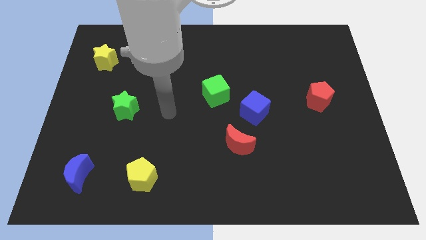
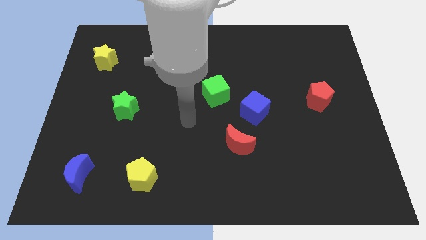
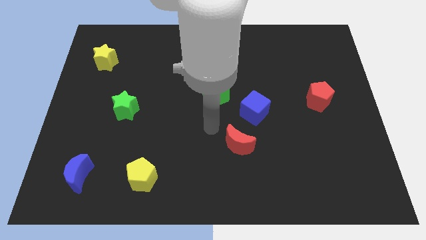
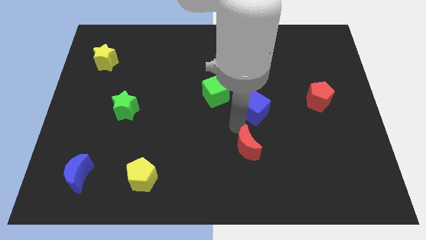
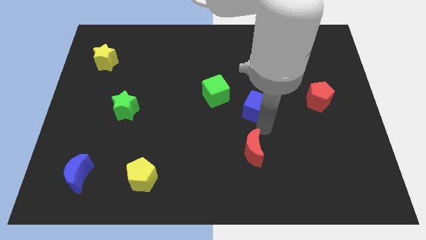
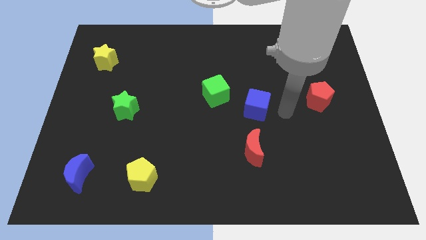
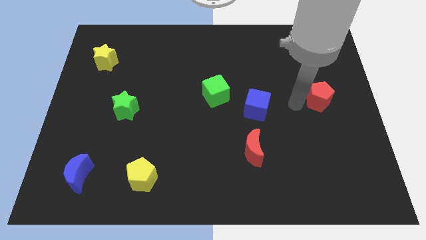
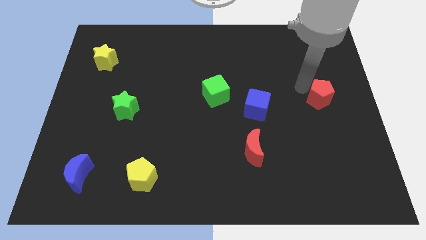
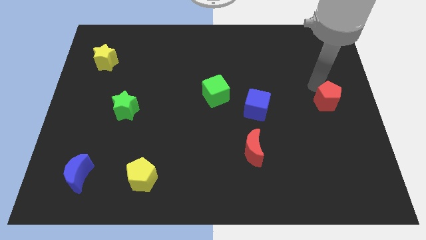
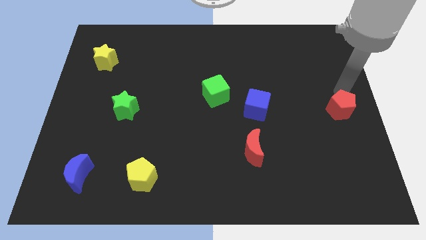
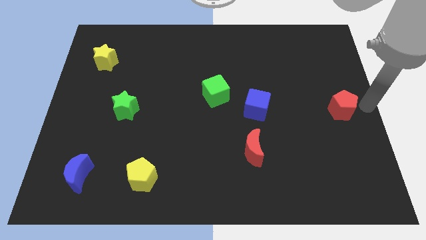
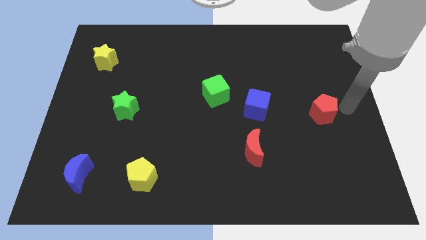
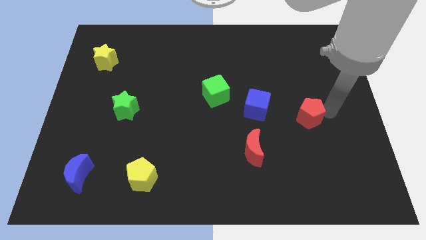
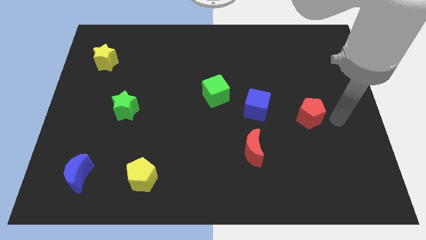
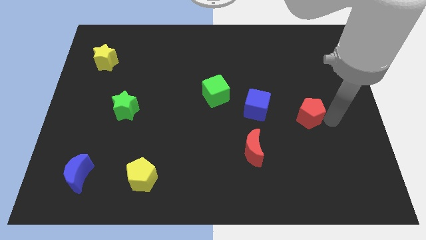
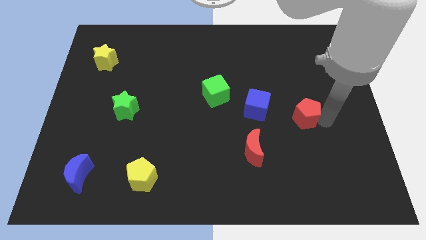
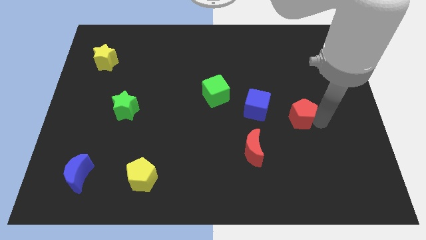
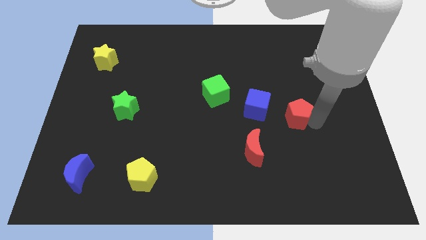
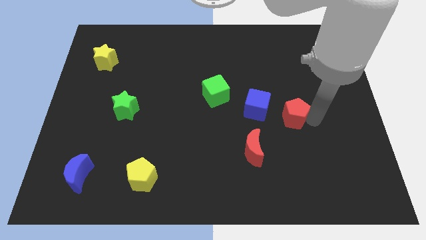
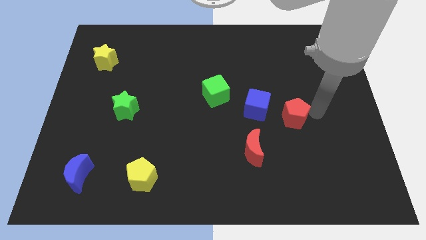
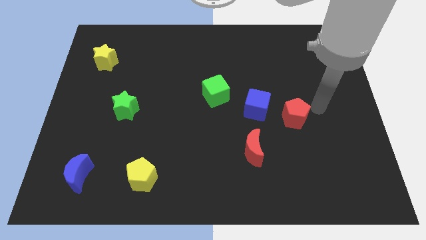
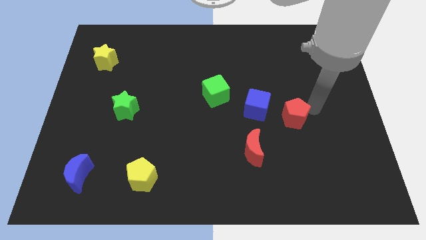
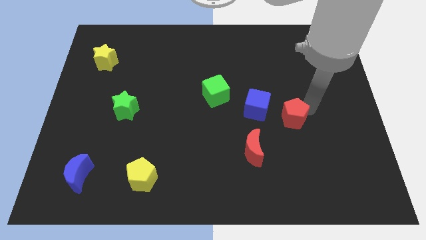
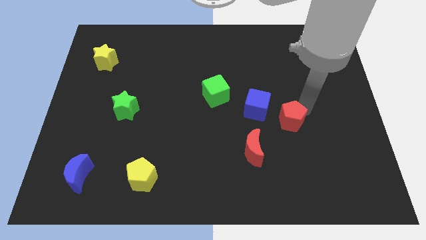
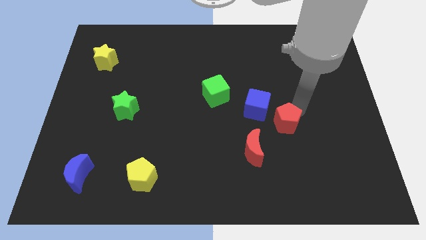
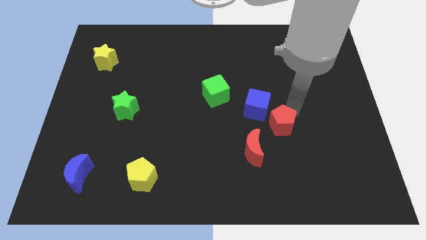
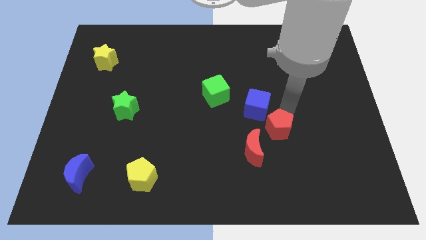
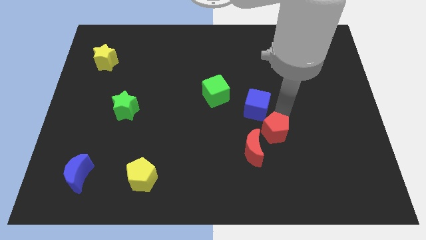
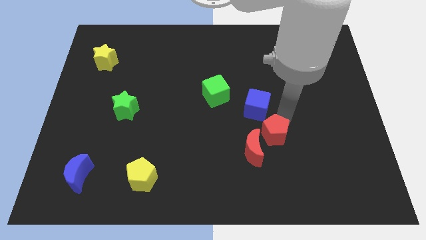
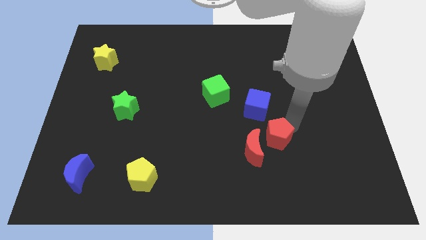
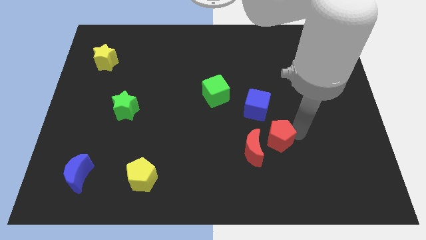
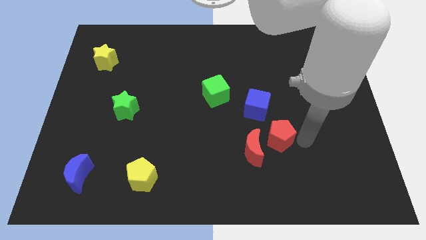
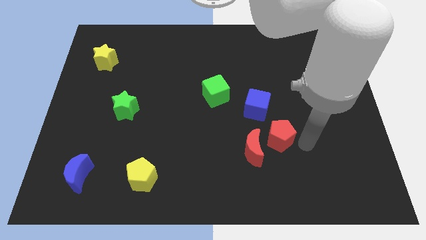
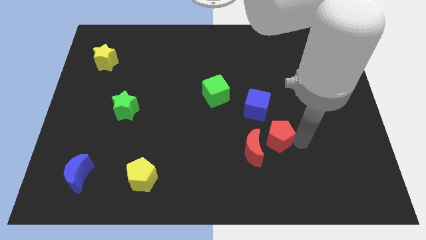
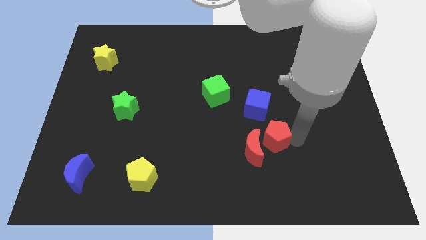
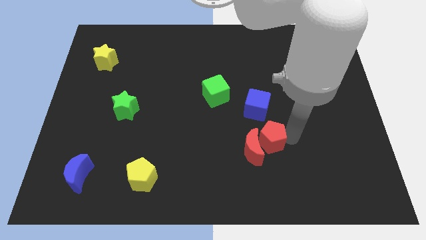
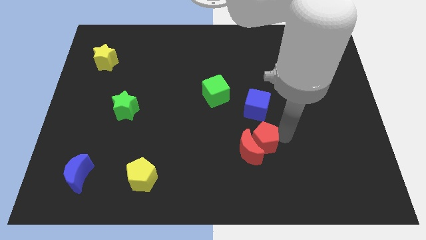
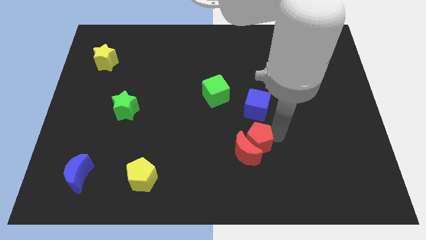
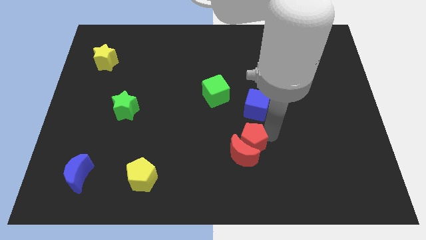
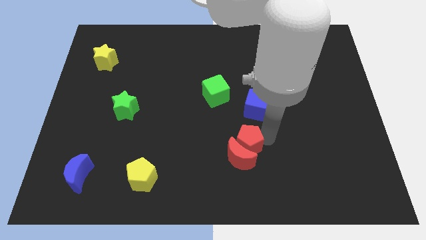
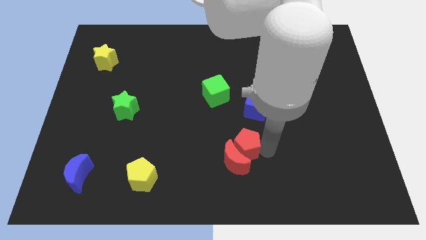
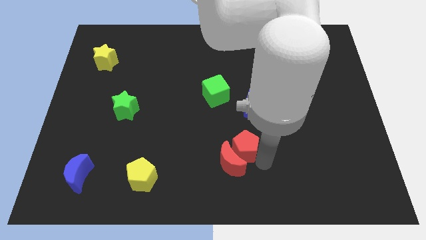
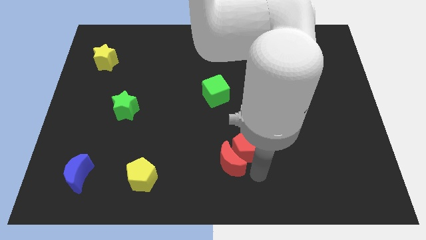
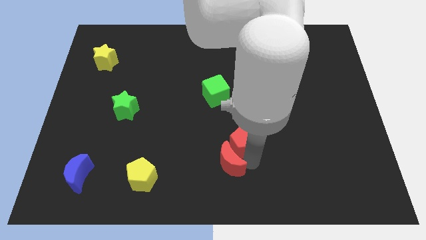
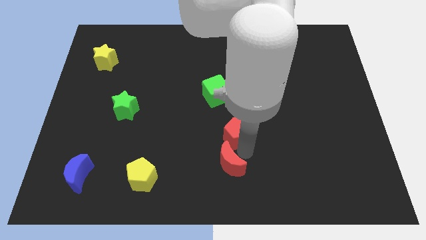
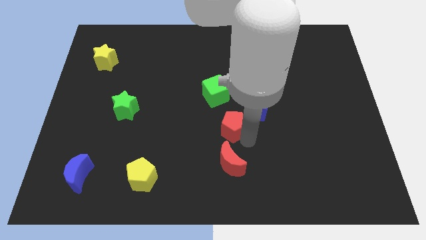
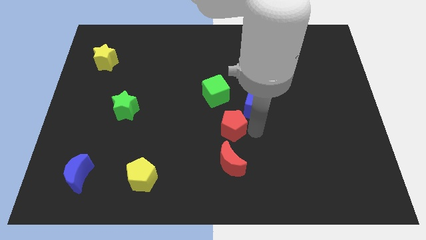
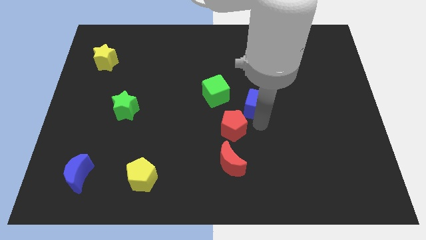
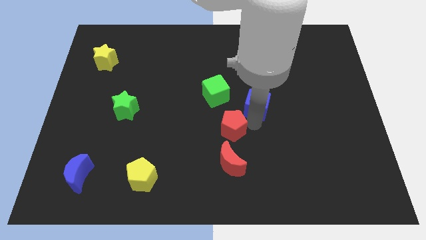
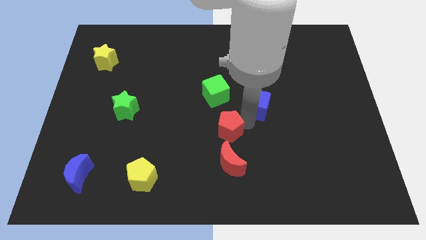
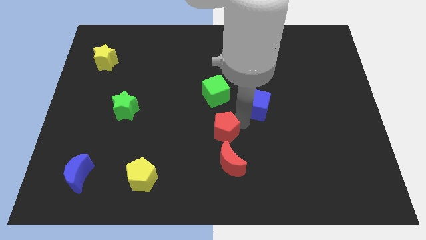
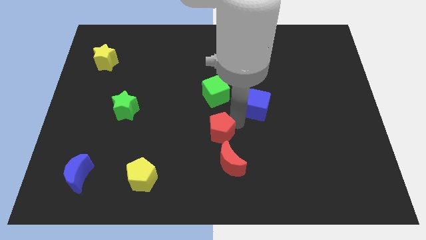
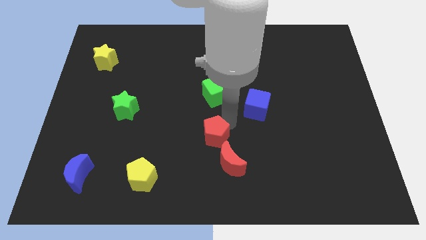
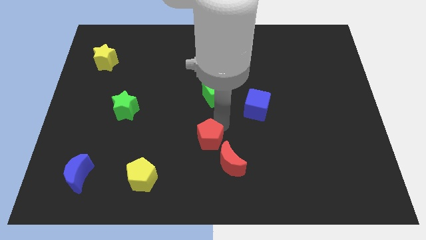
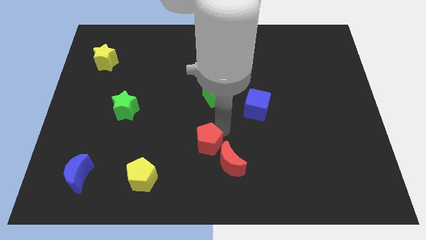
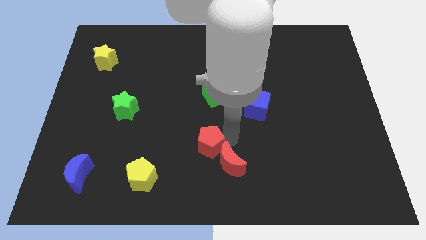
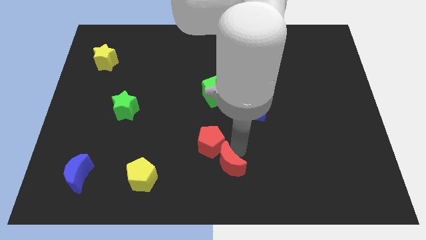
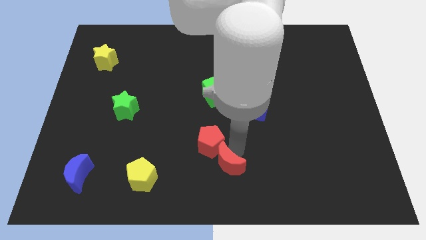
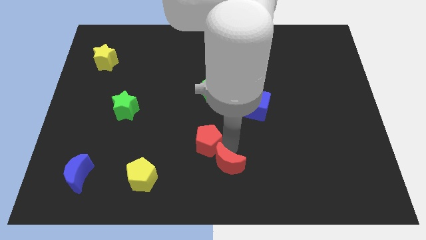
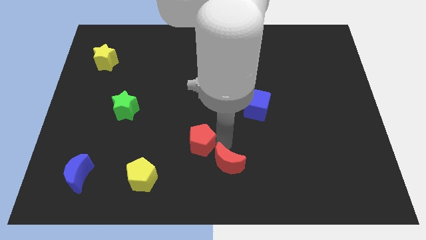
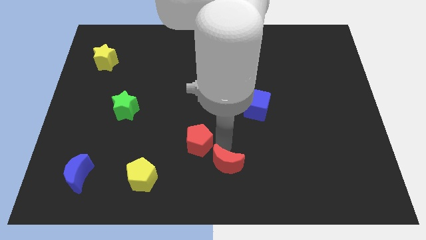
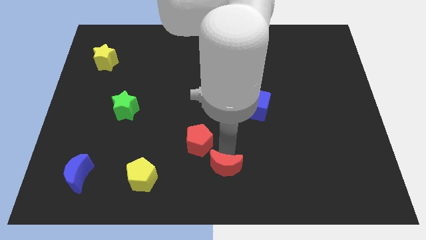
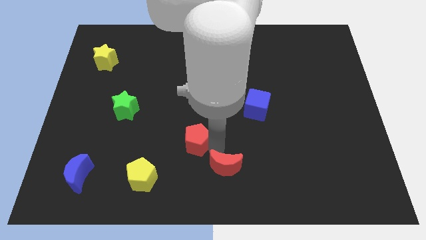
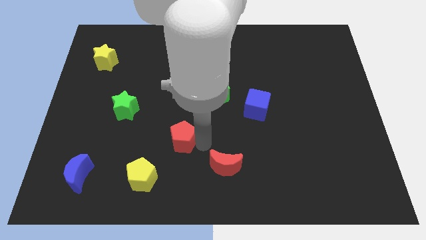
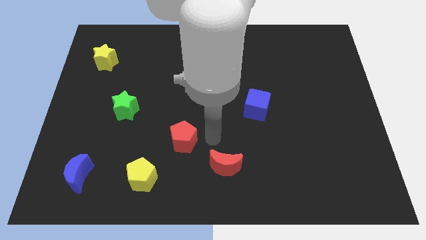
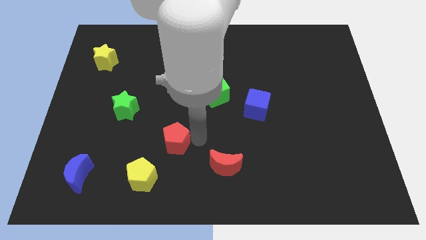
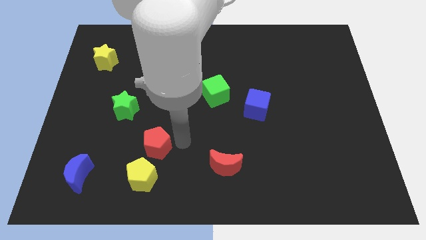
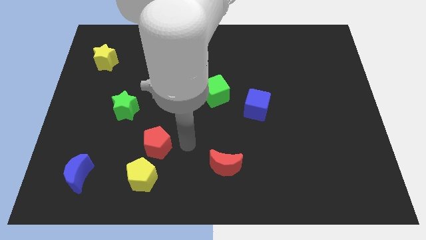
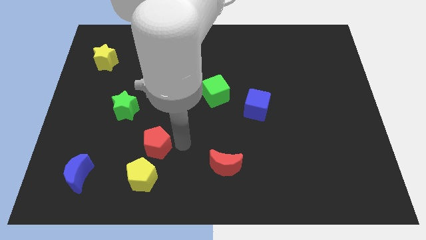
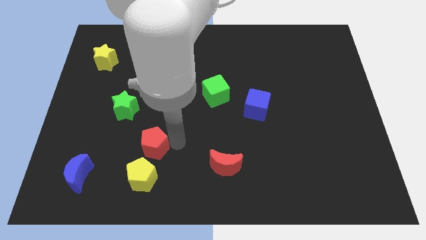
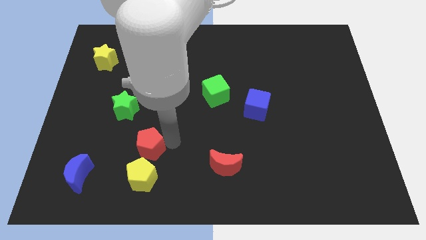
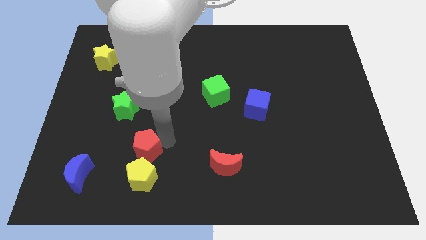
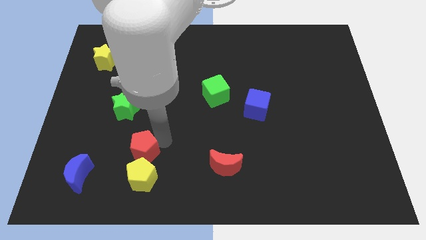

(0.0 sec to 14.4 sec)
put the red pentagon to the top left of the yellow pentagon

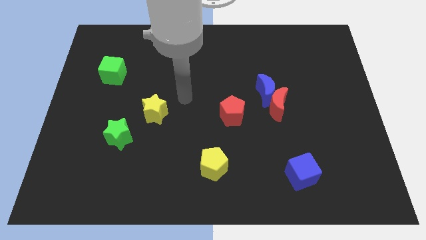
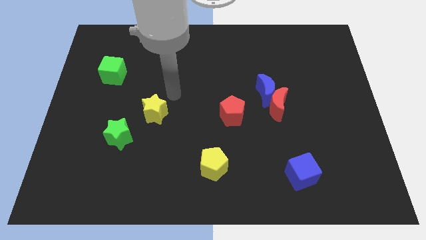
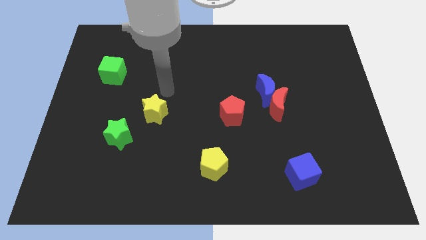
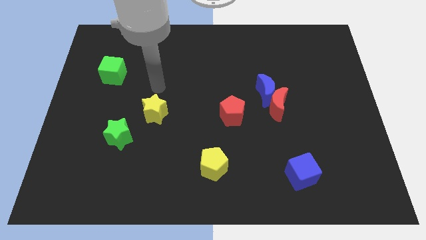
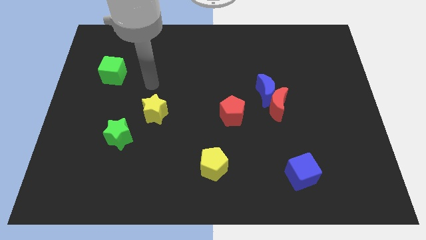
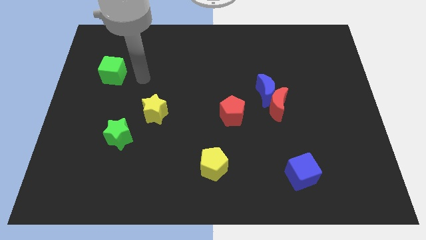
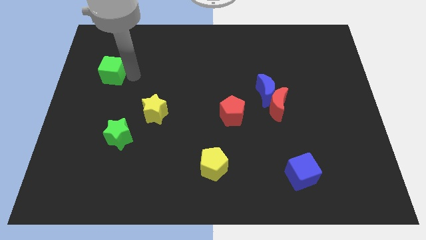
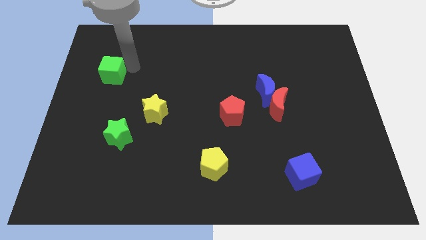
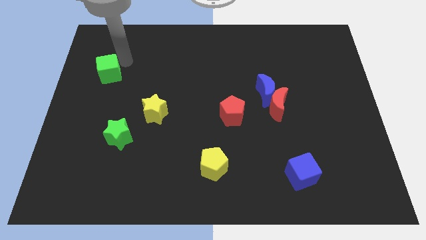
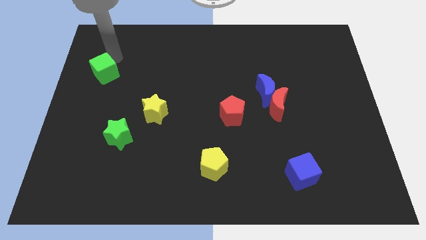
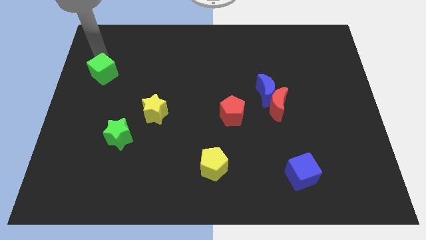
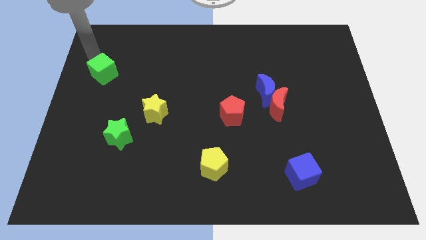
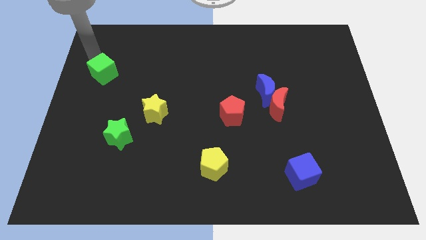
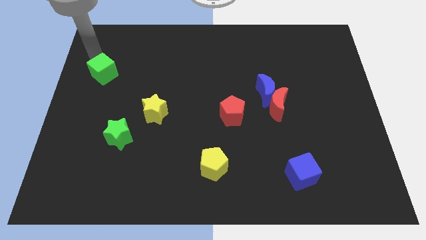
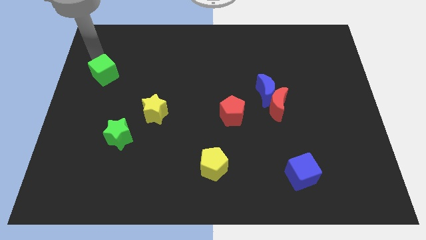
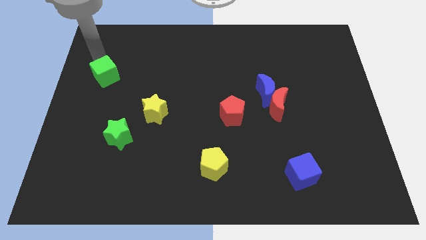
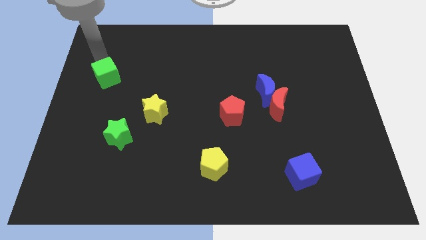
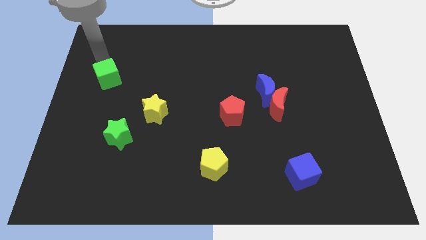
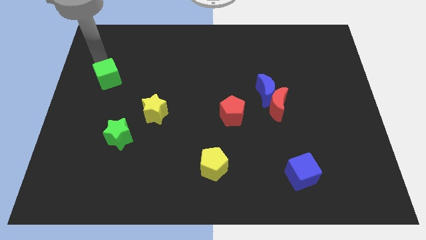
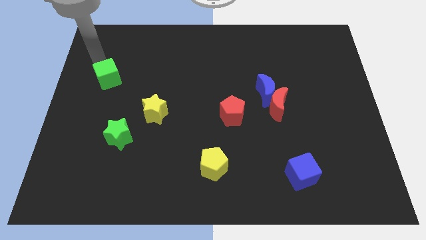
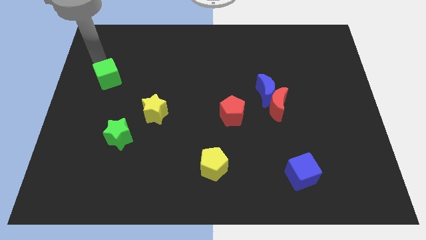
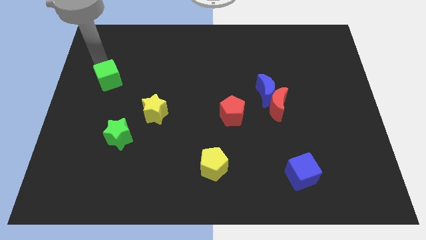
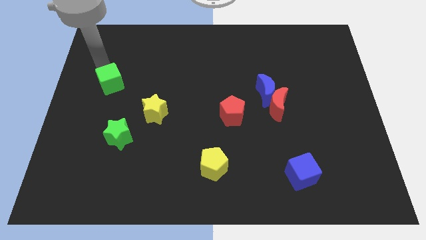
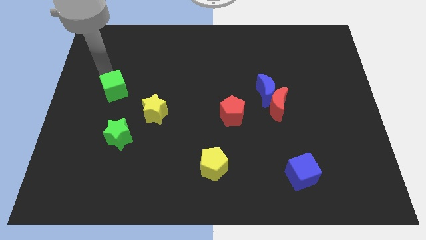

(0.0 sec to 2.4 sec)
move the green cube above the green star
